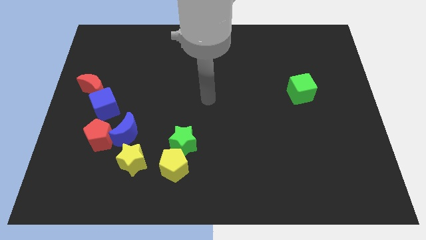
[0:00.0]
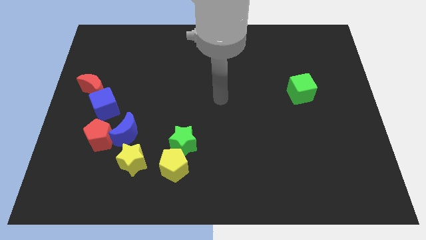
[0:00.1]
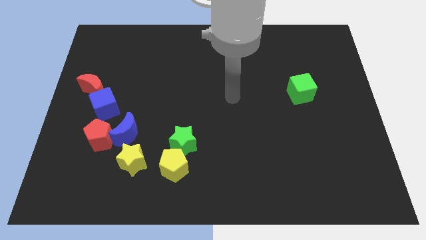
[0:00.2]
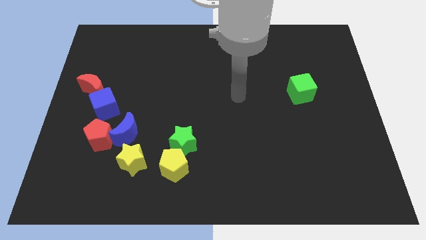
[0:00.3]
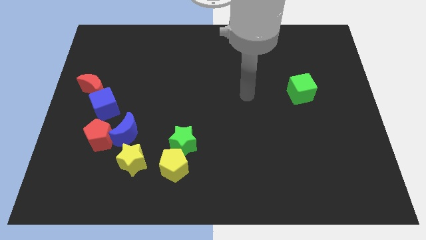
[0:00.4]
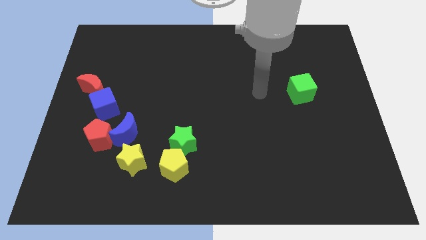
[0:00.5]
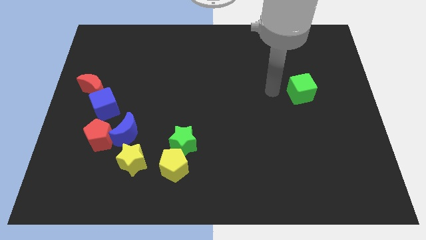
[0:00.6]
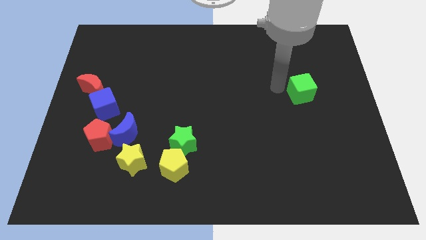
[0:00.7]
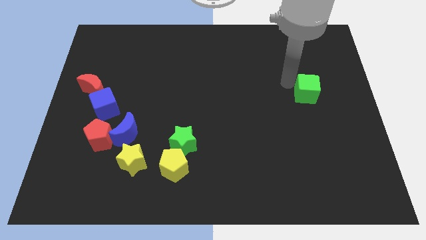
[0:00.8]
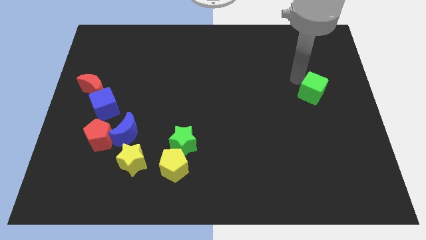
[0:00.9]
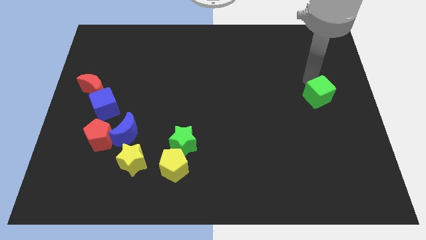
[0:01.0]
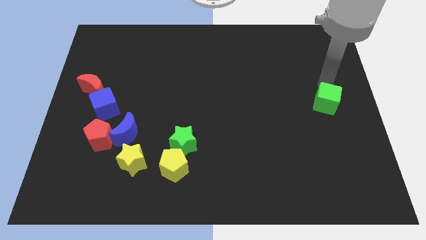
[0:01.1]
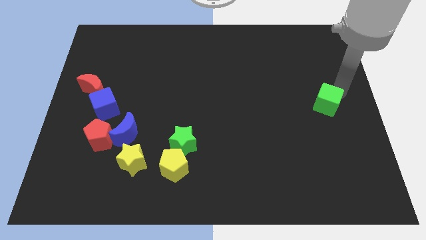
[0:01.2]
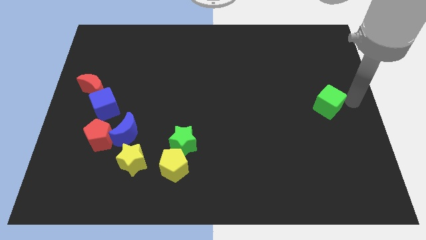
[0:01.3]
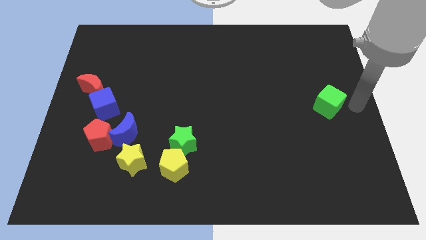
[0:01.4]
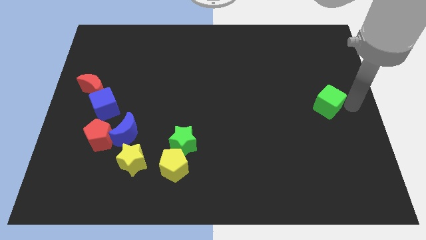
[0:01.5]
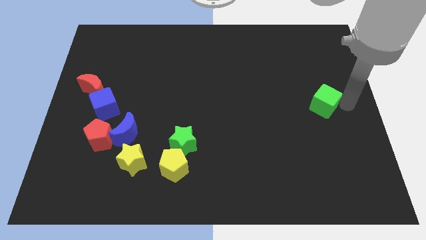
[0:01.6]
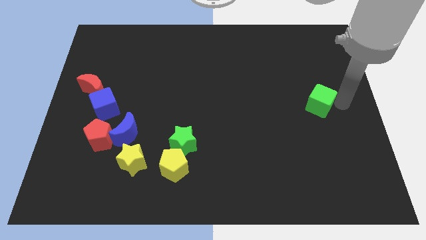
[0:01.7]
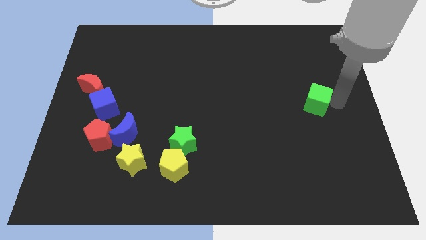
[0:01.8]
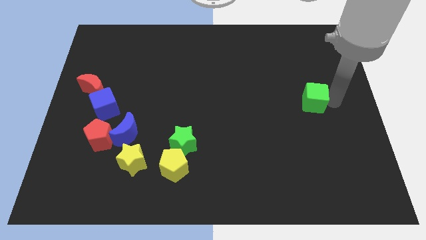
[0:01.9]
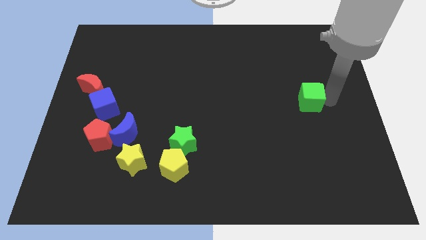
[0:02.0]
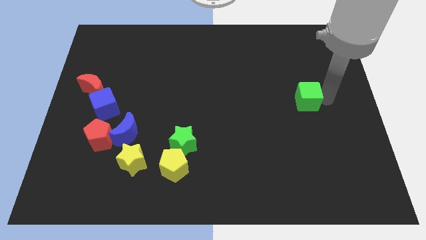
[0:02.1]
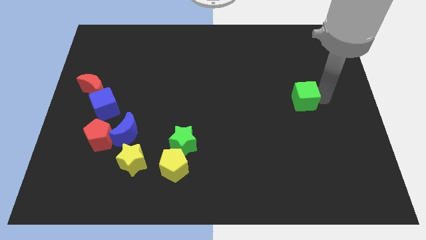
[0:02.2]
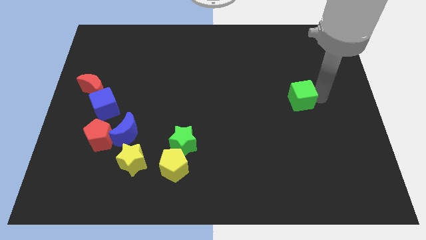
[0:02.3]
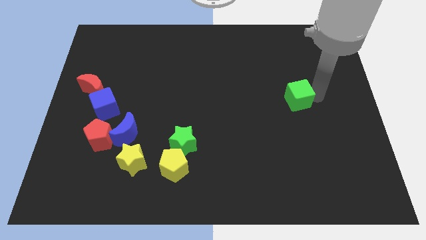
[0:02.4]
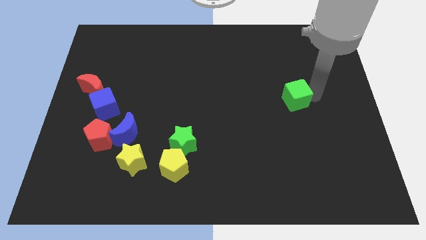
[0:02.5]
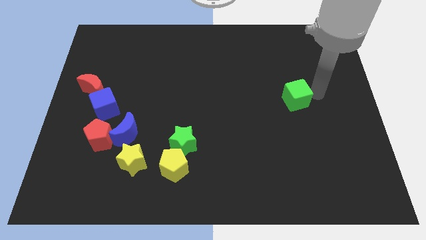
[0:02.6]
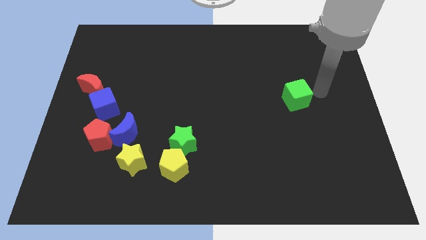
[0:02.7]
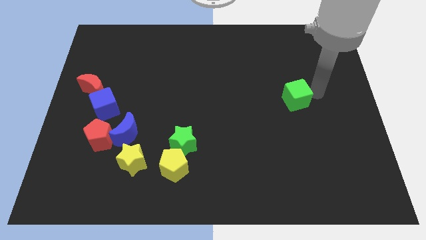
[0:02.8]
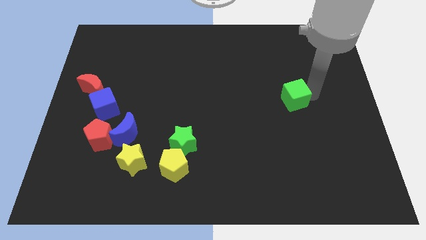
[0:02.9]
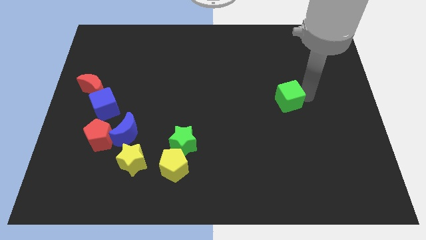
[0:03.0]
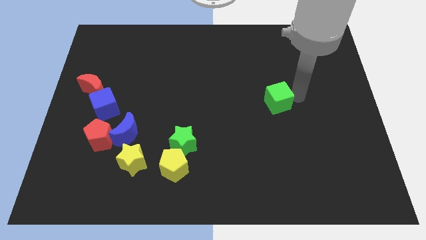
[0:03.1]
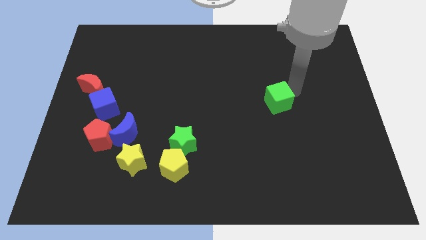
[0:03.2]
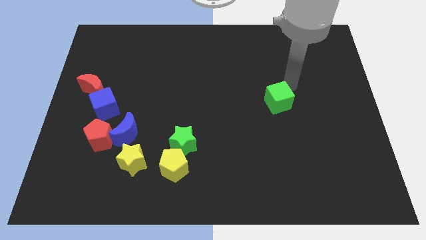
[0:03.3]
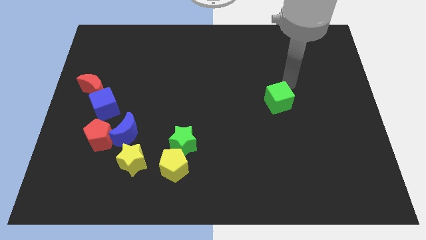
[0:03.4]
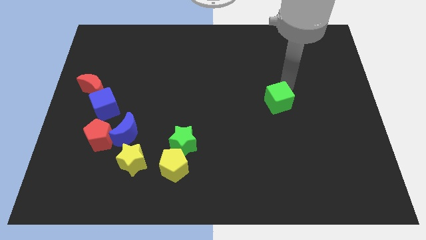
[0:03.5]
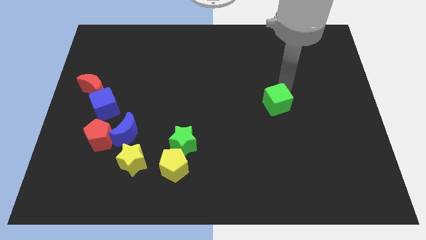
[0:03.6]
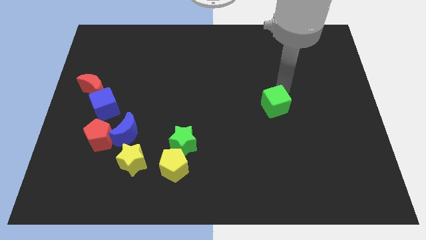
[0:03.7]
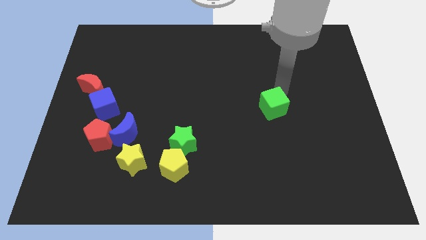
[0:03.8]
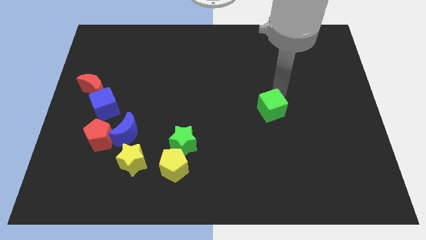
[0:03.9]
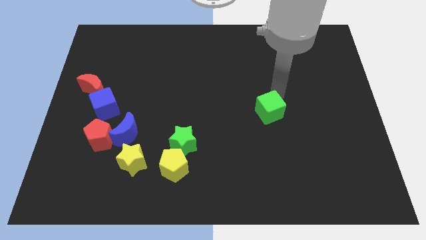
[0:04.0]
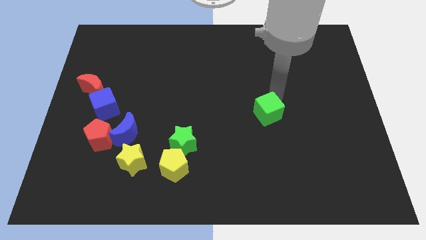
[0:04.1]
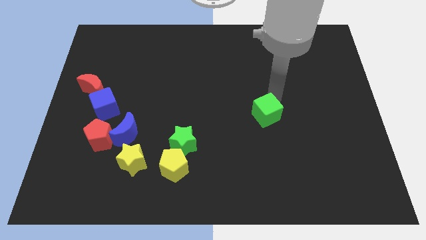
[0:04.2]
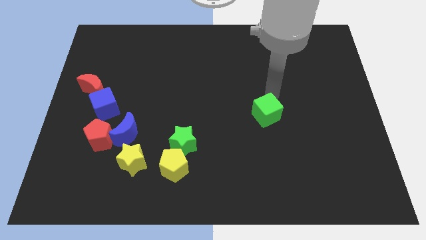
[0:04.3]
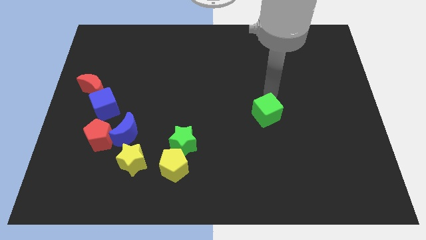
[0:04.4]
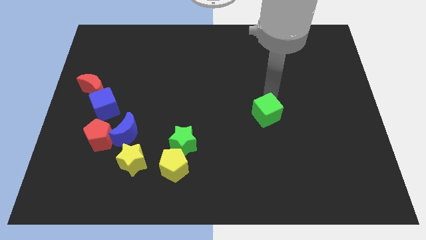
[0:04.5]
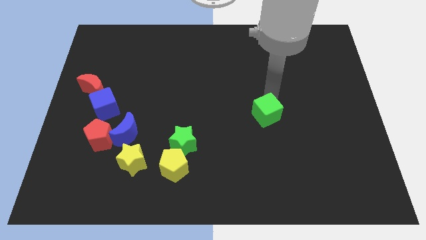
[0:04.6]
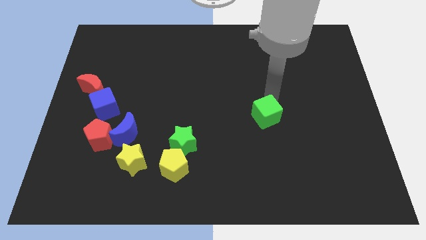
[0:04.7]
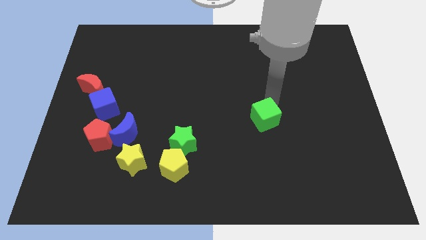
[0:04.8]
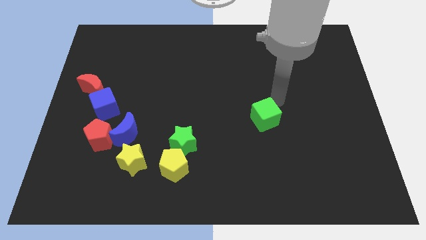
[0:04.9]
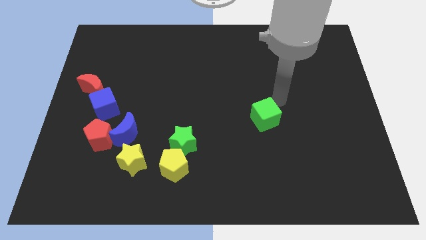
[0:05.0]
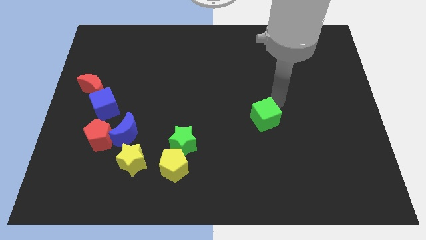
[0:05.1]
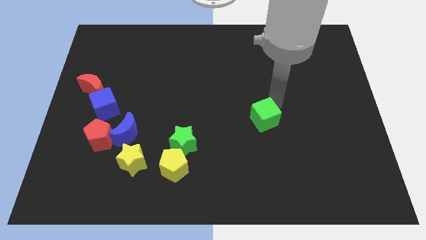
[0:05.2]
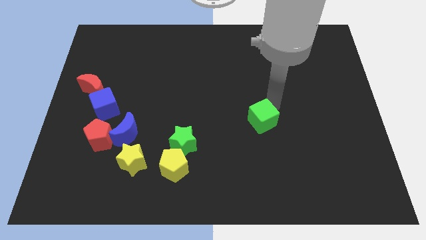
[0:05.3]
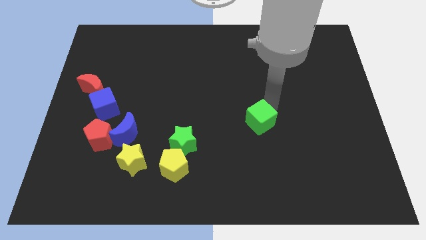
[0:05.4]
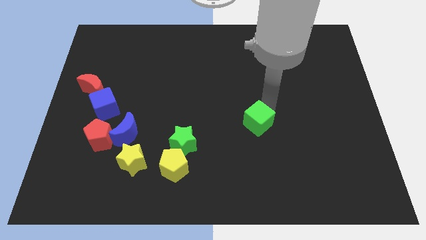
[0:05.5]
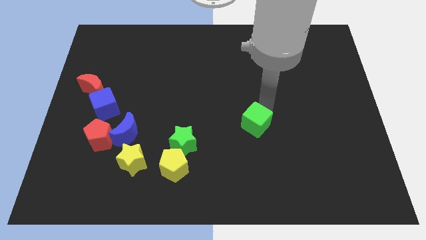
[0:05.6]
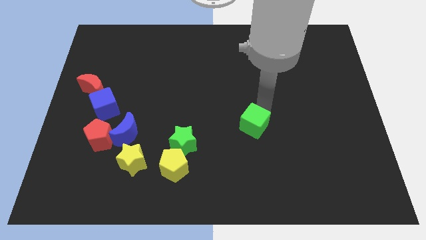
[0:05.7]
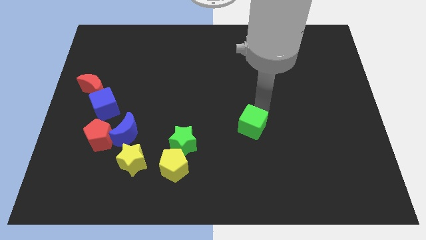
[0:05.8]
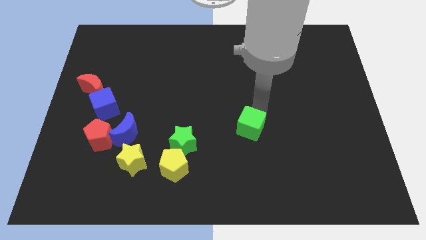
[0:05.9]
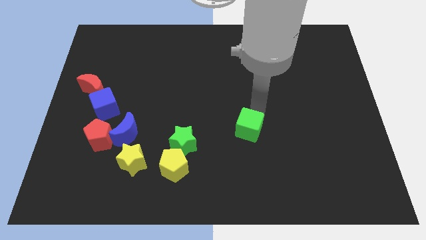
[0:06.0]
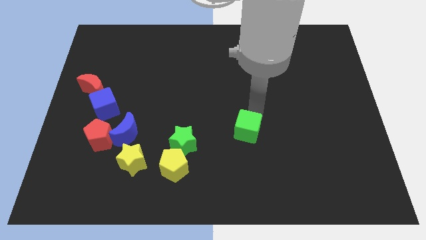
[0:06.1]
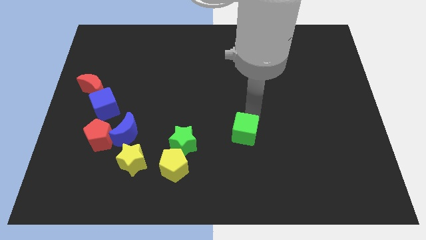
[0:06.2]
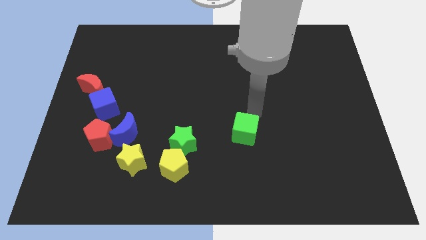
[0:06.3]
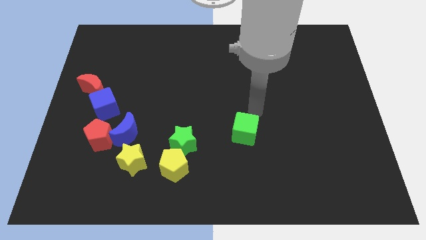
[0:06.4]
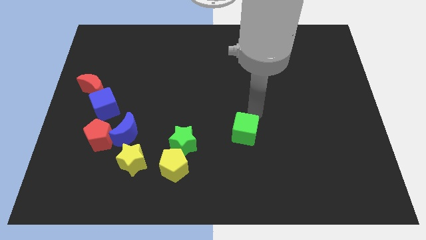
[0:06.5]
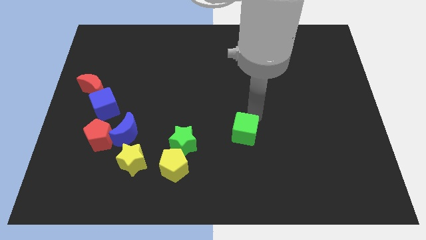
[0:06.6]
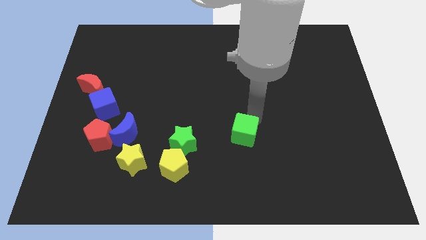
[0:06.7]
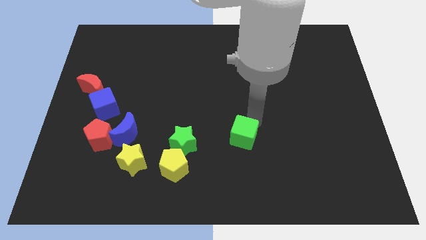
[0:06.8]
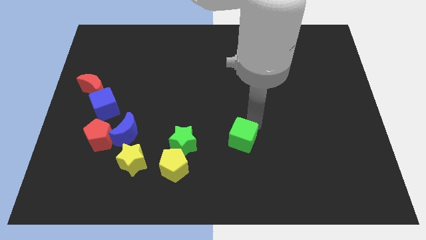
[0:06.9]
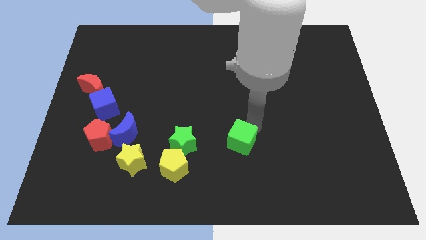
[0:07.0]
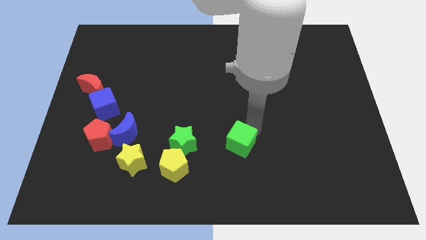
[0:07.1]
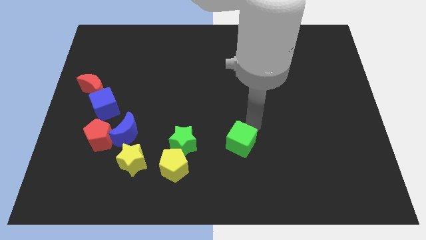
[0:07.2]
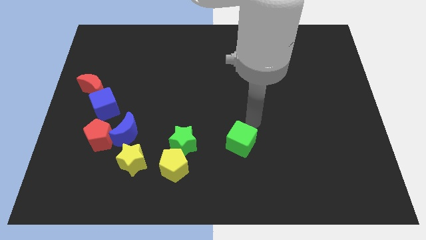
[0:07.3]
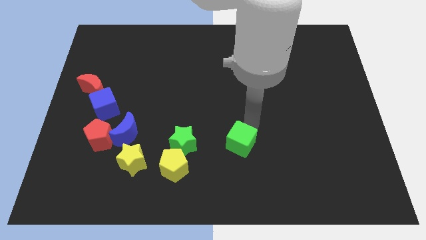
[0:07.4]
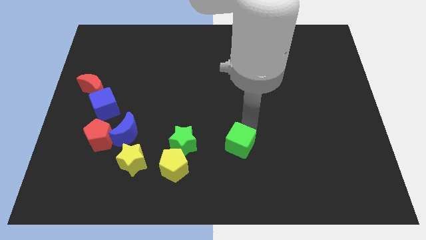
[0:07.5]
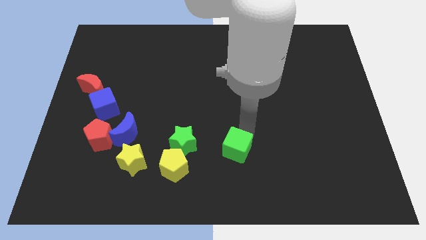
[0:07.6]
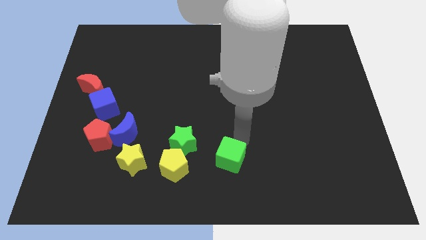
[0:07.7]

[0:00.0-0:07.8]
slide the green cube to the bottom side
